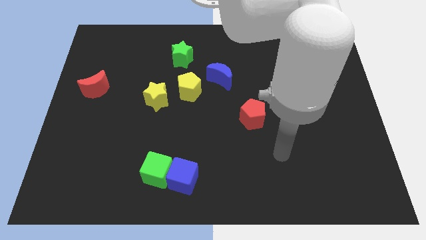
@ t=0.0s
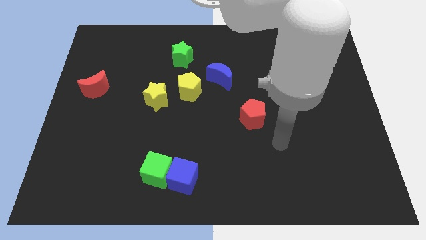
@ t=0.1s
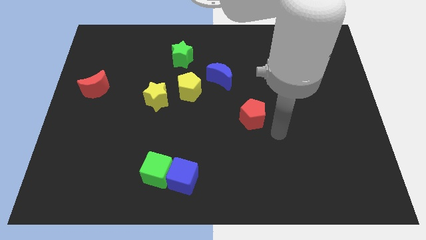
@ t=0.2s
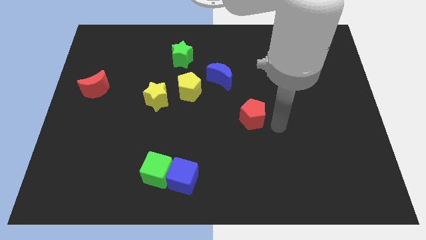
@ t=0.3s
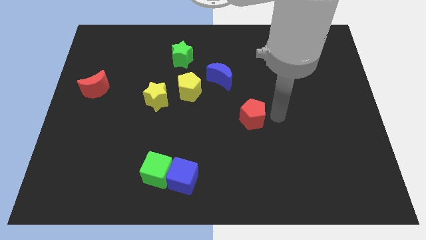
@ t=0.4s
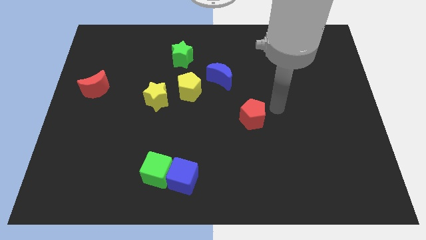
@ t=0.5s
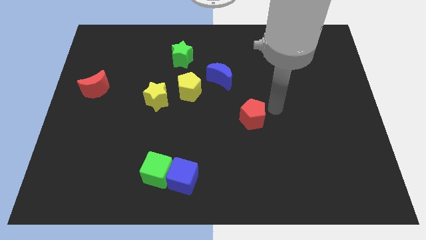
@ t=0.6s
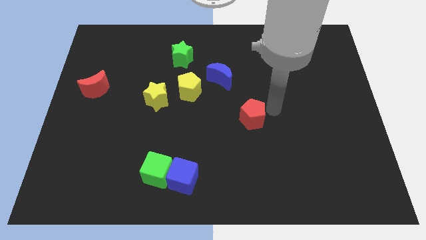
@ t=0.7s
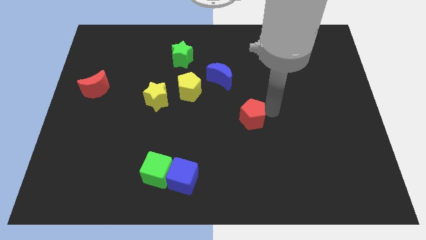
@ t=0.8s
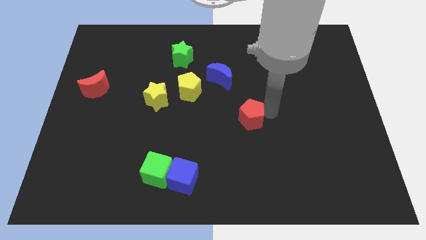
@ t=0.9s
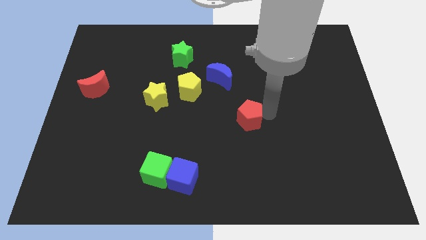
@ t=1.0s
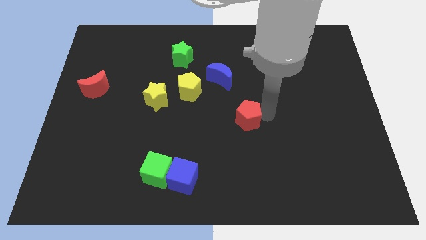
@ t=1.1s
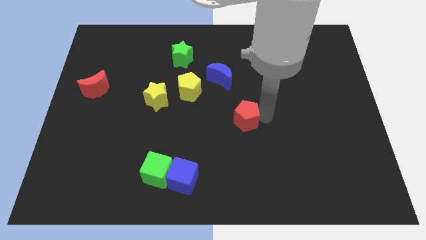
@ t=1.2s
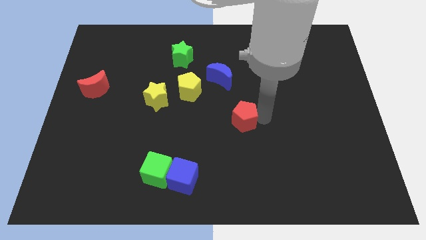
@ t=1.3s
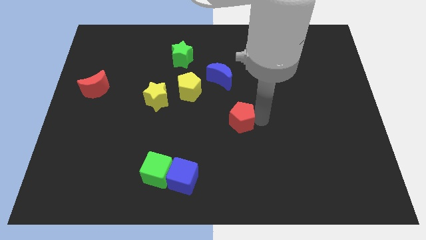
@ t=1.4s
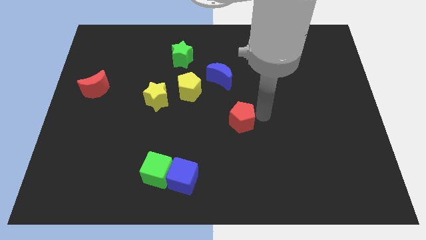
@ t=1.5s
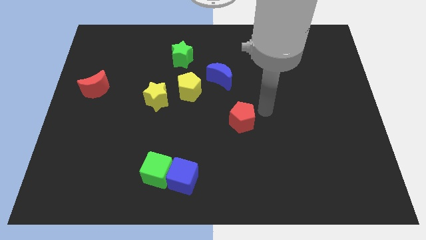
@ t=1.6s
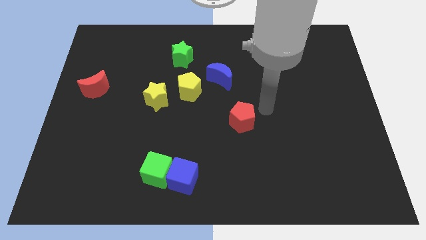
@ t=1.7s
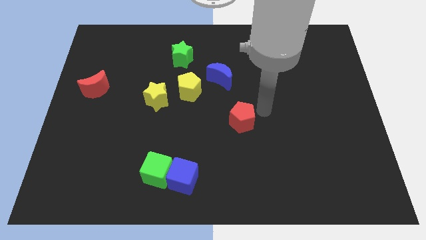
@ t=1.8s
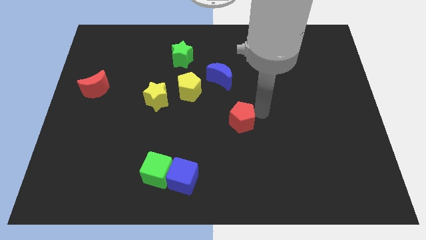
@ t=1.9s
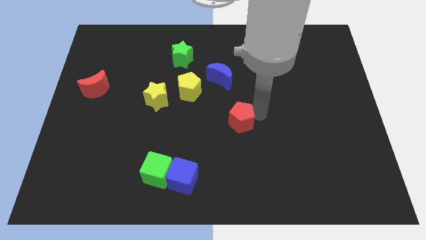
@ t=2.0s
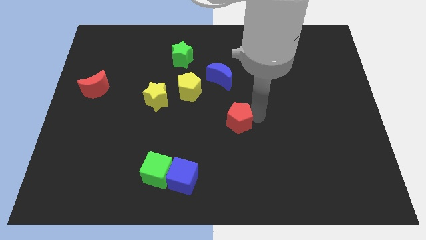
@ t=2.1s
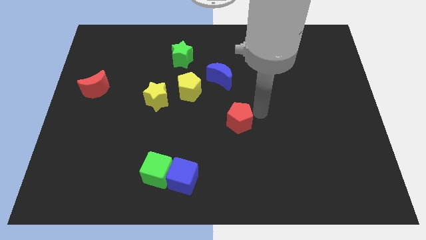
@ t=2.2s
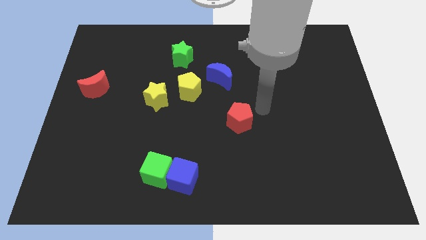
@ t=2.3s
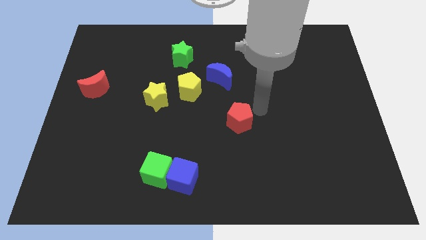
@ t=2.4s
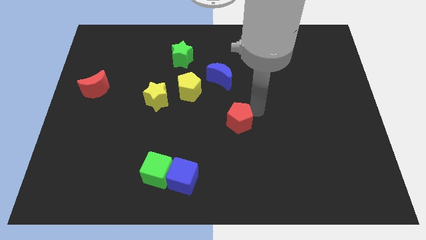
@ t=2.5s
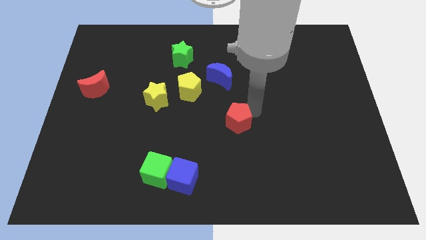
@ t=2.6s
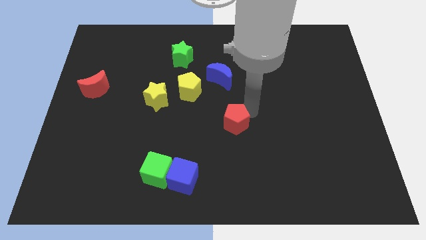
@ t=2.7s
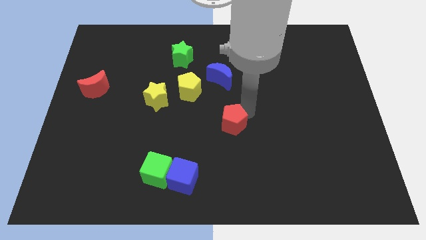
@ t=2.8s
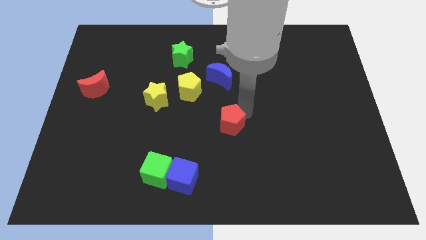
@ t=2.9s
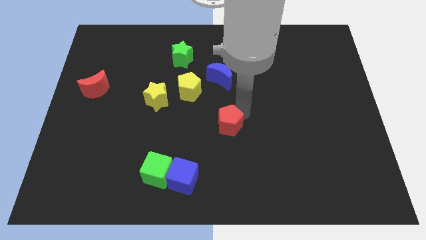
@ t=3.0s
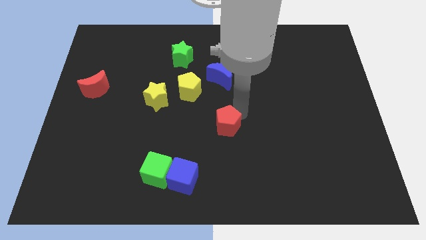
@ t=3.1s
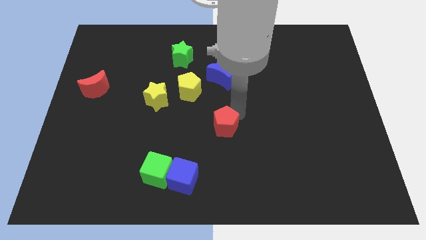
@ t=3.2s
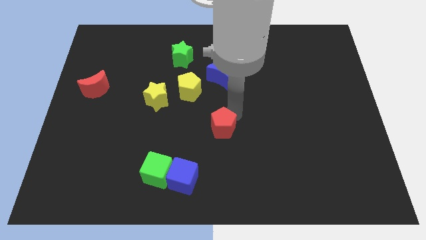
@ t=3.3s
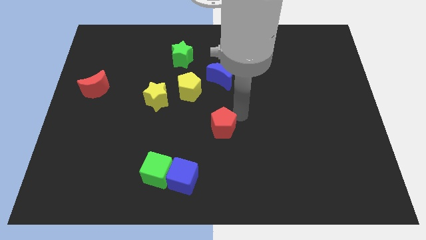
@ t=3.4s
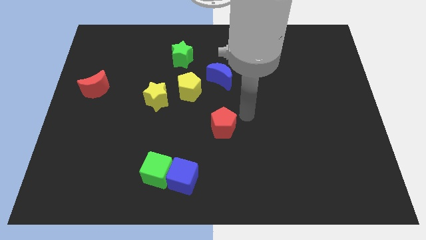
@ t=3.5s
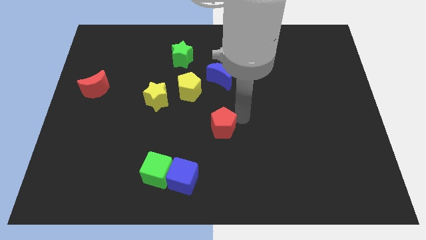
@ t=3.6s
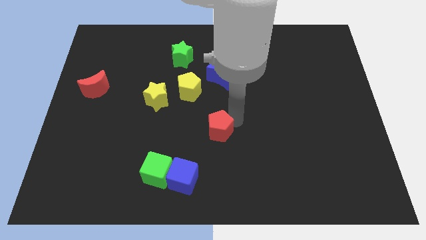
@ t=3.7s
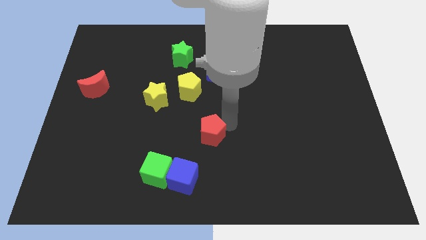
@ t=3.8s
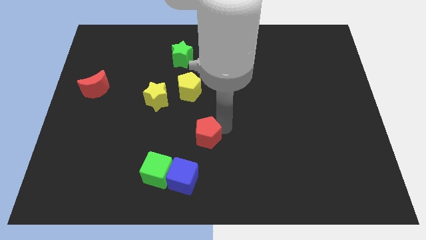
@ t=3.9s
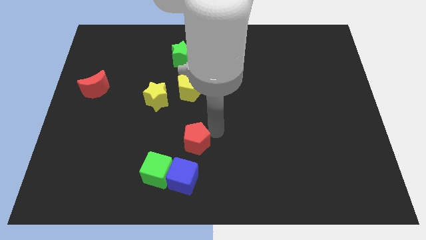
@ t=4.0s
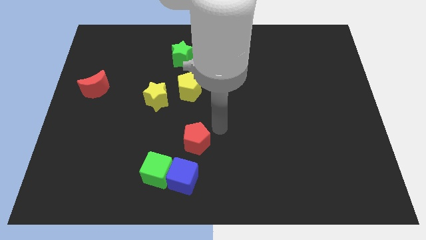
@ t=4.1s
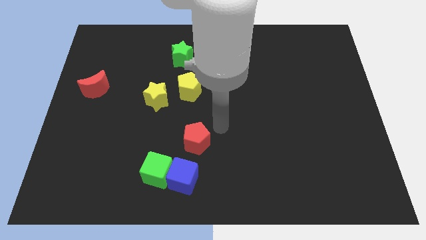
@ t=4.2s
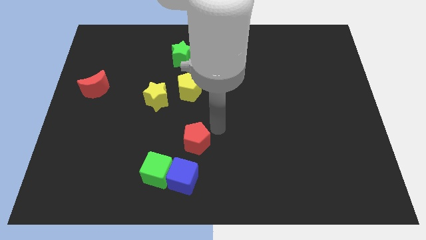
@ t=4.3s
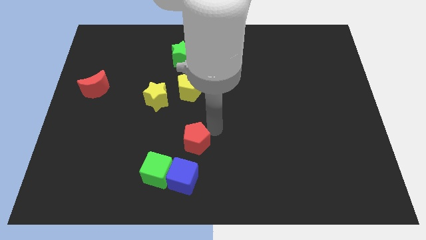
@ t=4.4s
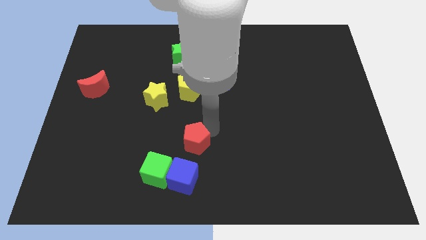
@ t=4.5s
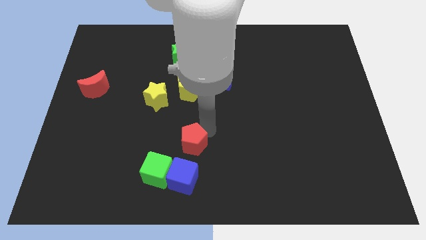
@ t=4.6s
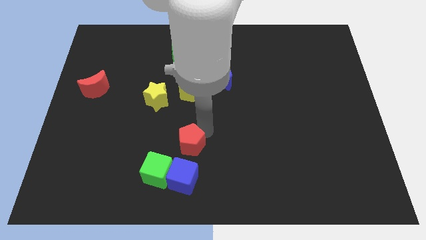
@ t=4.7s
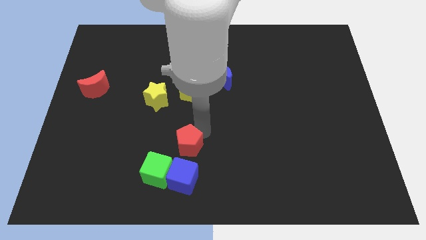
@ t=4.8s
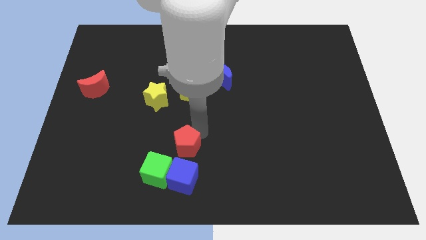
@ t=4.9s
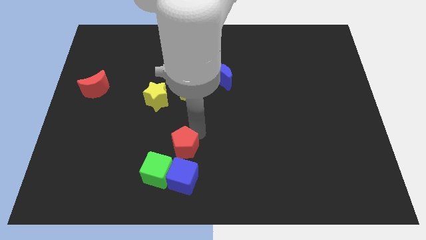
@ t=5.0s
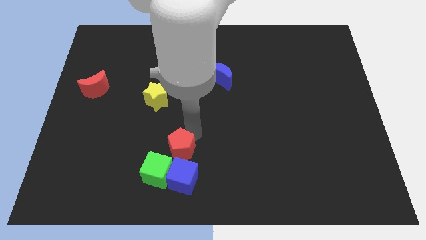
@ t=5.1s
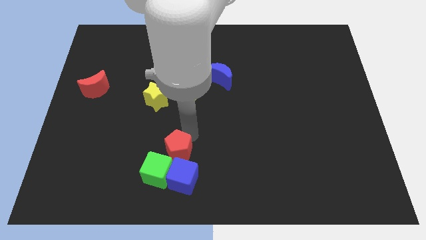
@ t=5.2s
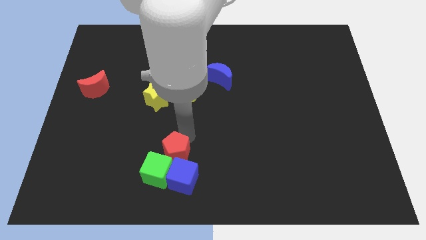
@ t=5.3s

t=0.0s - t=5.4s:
slide the red pentagon towards the green cube

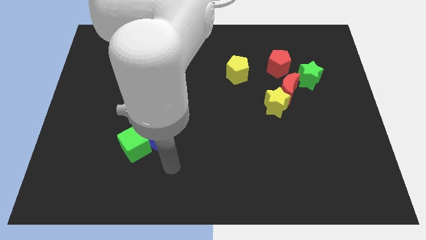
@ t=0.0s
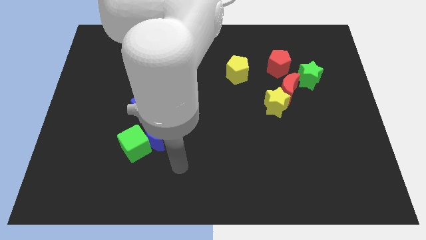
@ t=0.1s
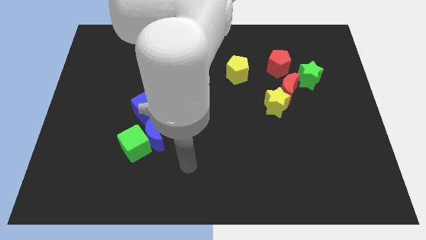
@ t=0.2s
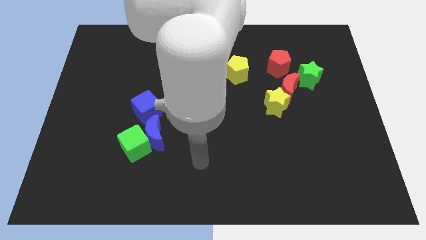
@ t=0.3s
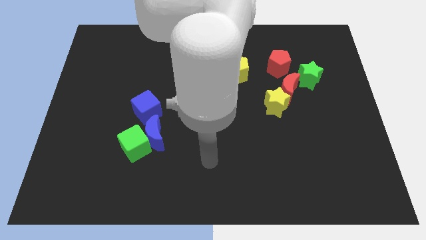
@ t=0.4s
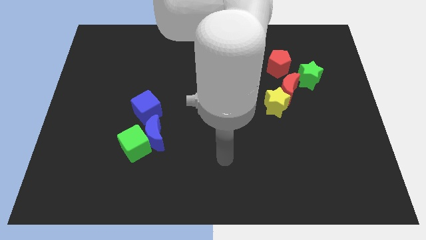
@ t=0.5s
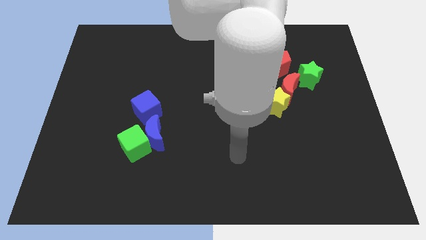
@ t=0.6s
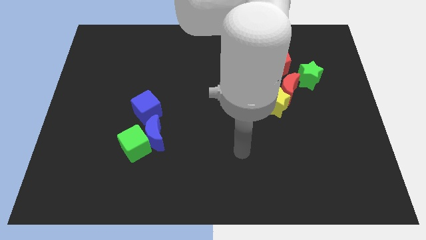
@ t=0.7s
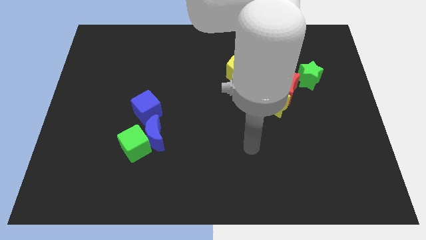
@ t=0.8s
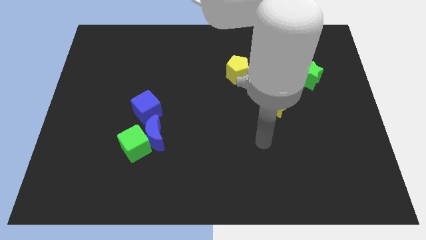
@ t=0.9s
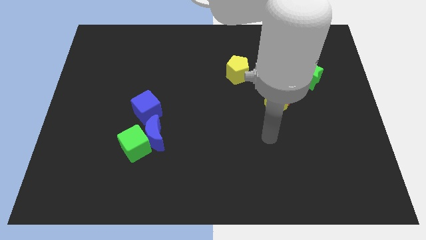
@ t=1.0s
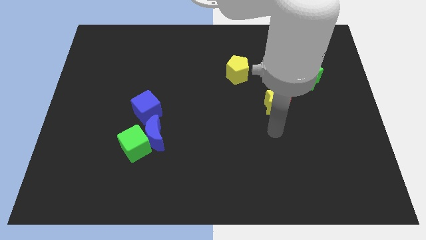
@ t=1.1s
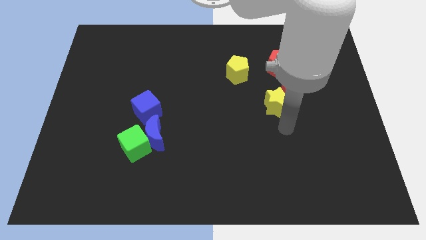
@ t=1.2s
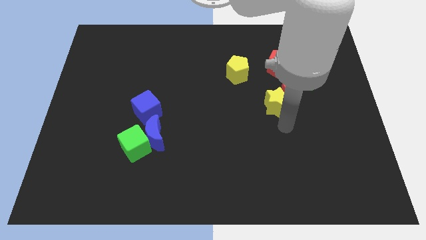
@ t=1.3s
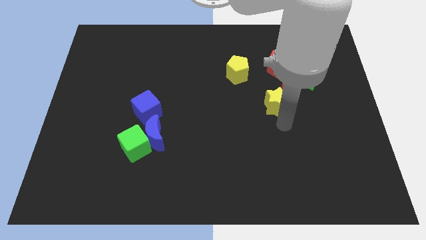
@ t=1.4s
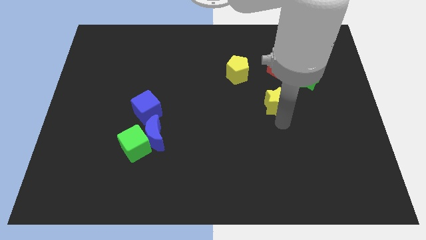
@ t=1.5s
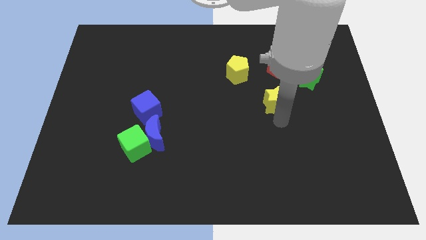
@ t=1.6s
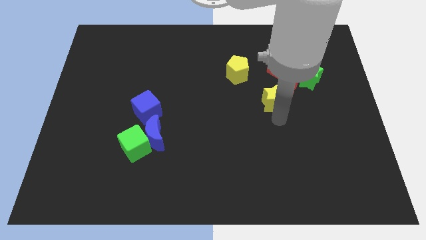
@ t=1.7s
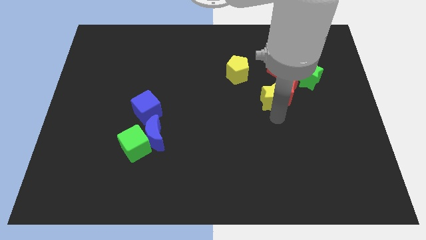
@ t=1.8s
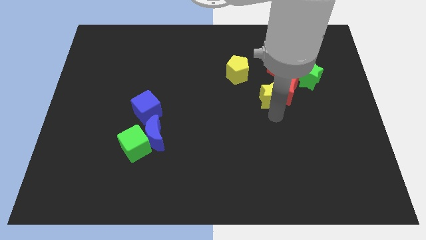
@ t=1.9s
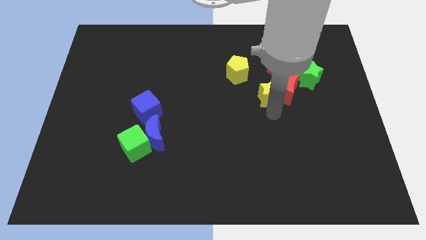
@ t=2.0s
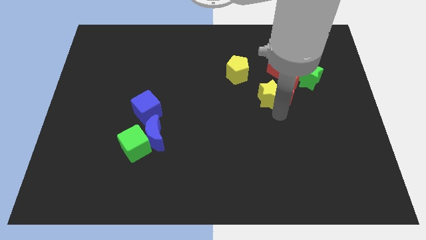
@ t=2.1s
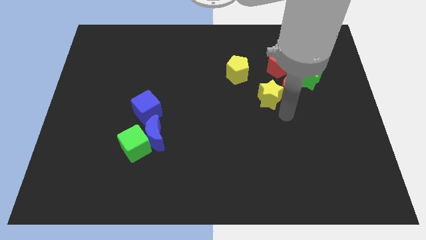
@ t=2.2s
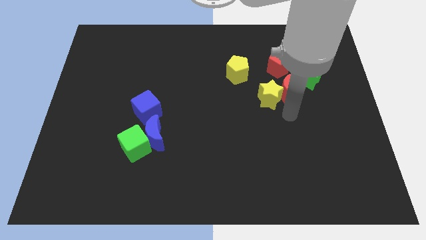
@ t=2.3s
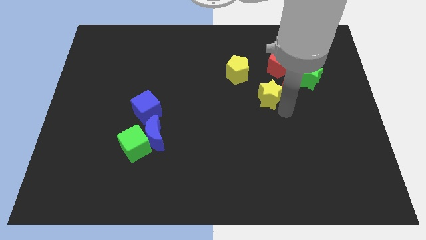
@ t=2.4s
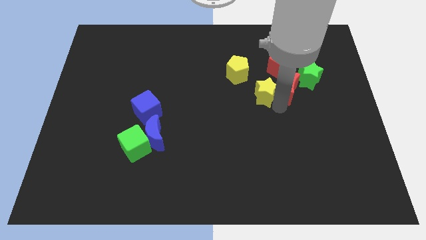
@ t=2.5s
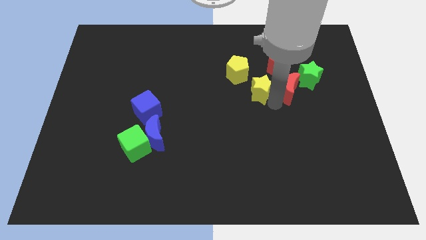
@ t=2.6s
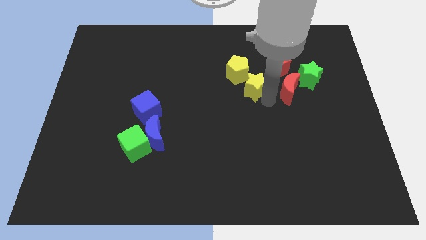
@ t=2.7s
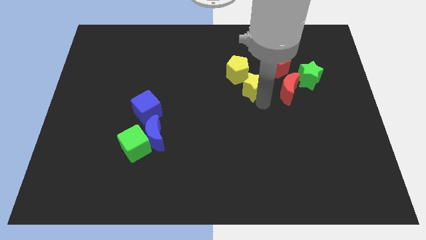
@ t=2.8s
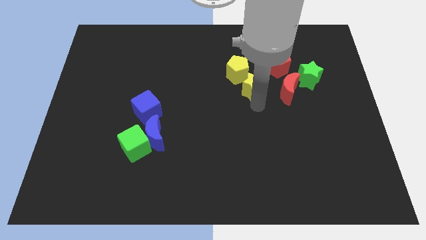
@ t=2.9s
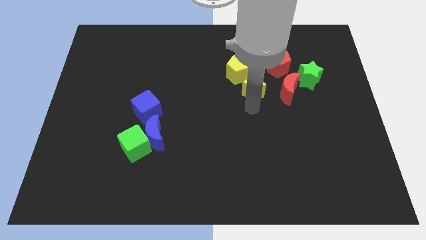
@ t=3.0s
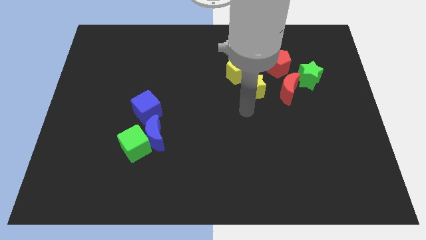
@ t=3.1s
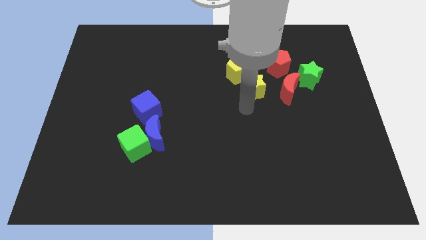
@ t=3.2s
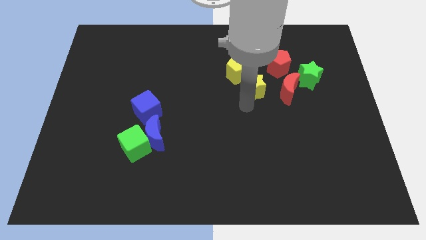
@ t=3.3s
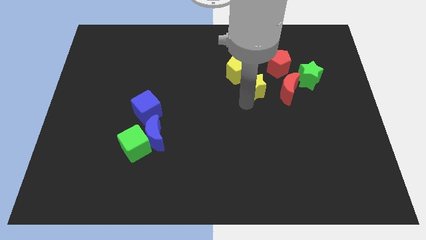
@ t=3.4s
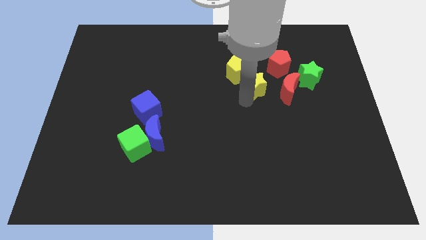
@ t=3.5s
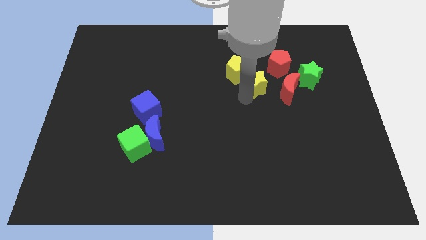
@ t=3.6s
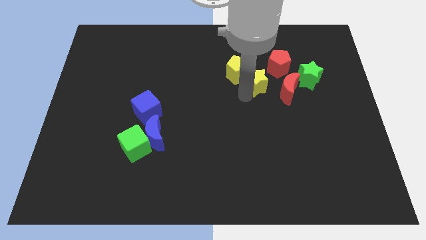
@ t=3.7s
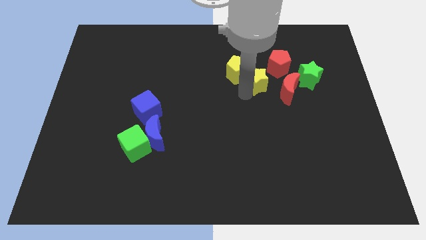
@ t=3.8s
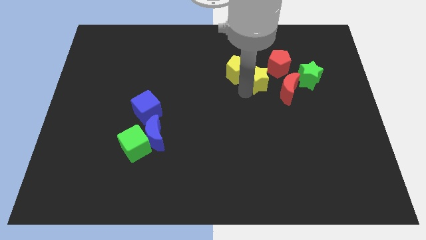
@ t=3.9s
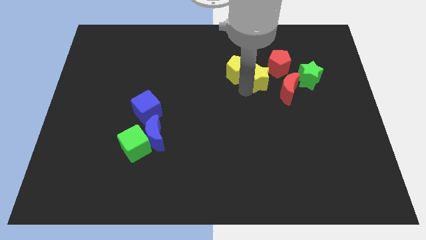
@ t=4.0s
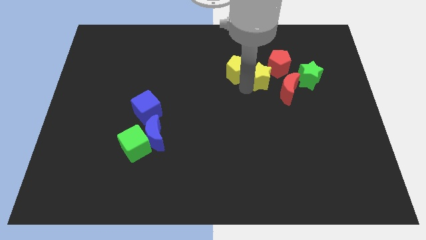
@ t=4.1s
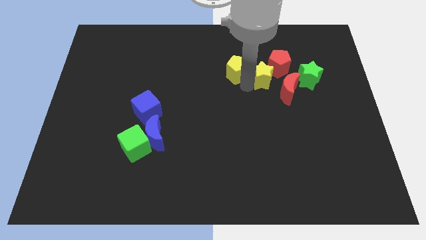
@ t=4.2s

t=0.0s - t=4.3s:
slide the yellow star next to the red pentagon
